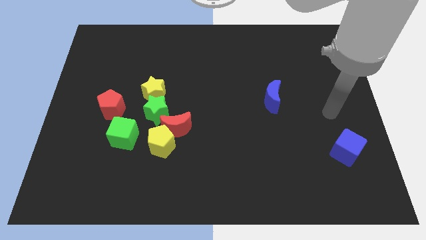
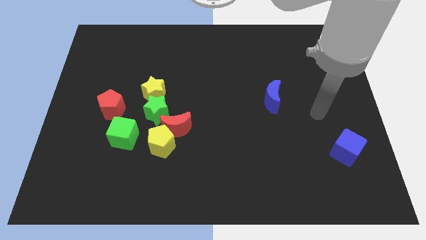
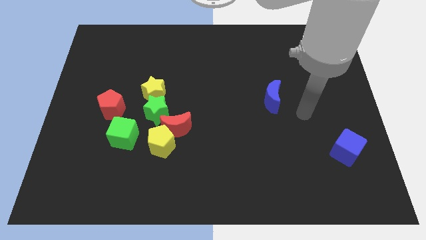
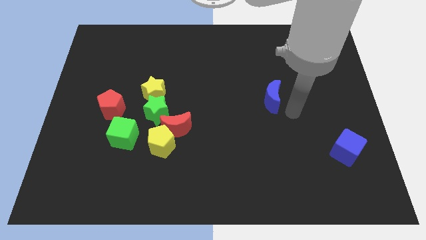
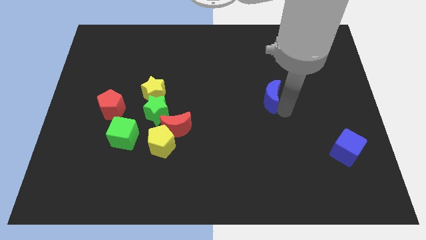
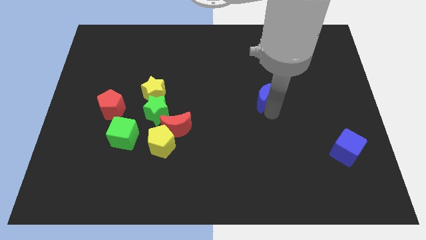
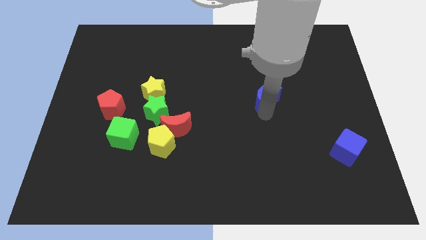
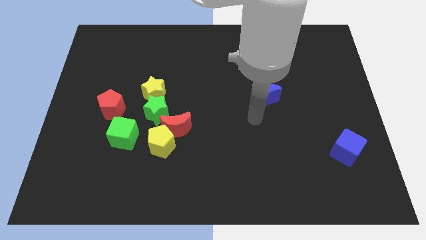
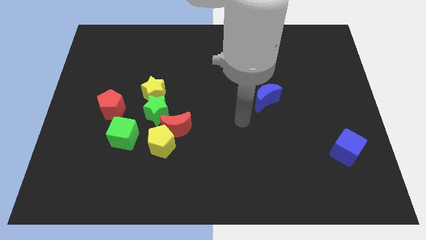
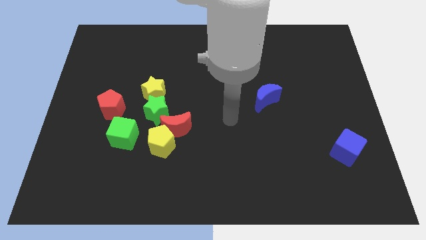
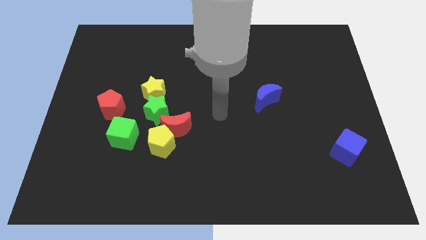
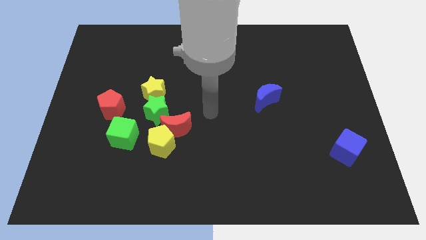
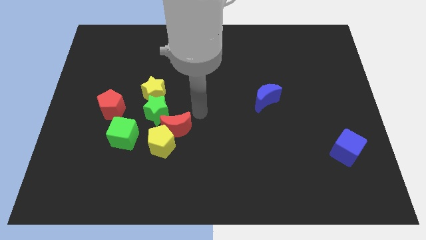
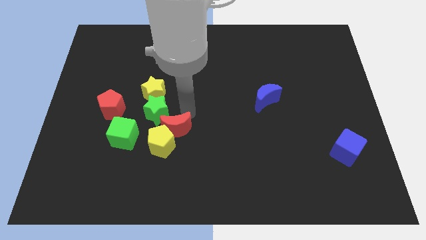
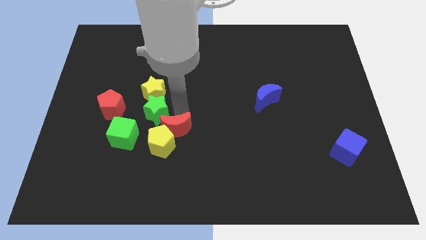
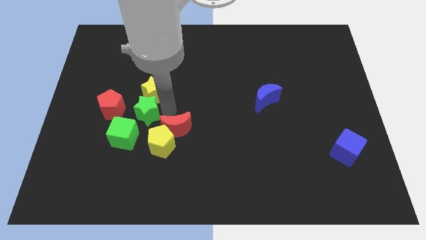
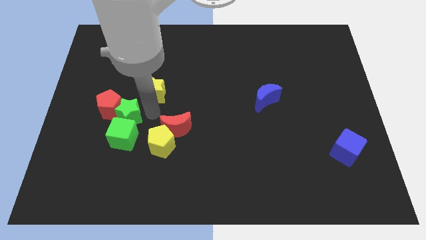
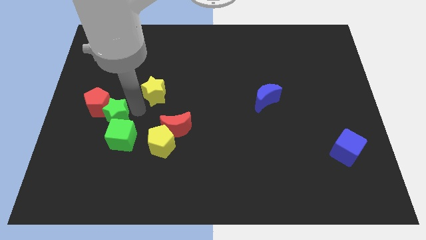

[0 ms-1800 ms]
separate the yellow star from the green star

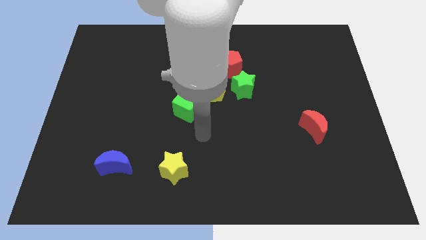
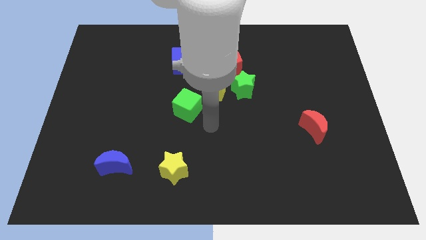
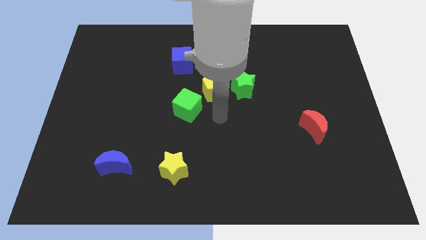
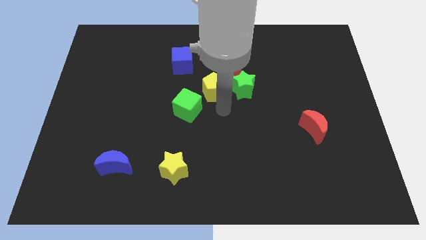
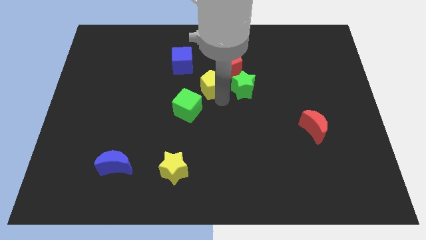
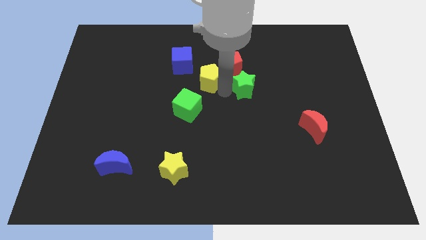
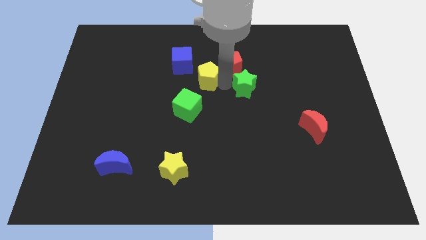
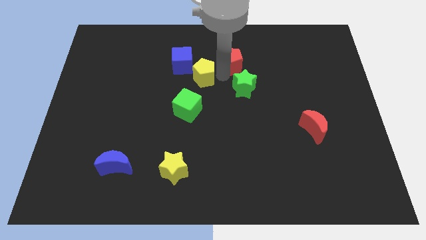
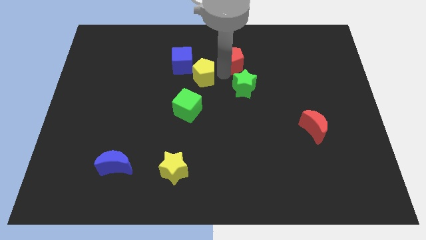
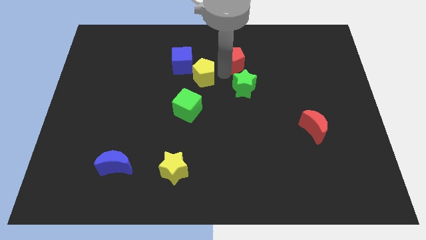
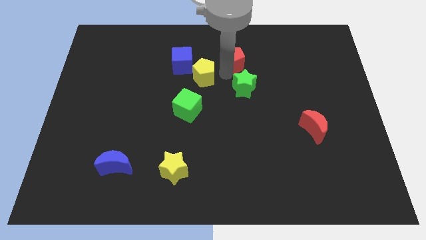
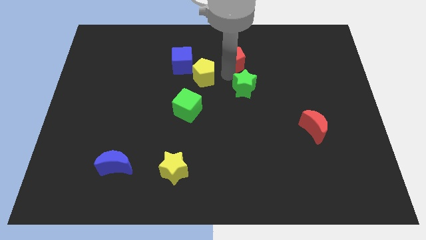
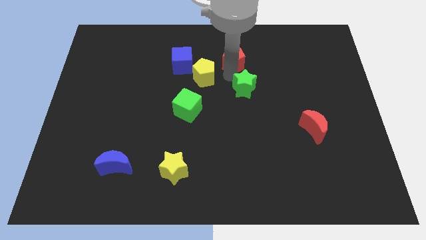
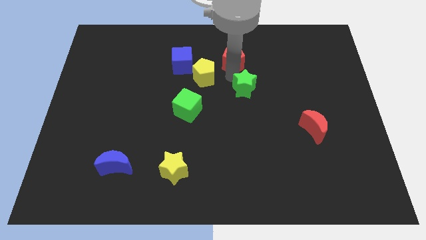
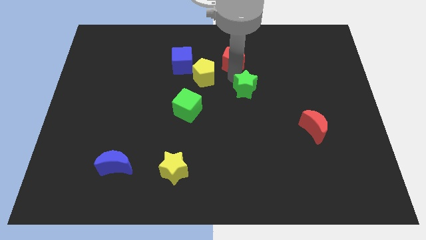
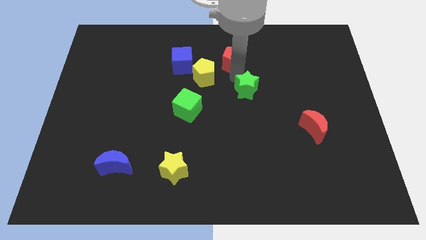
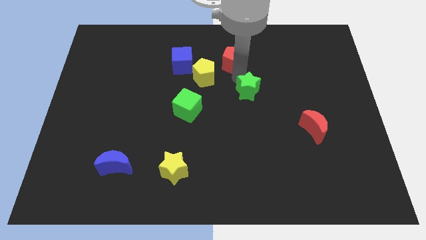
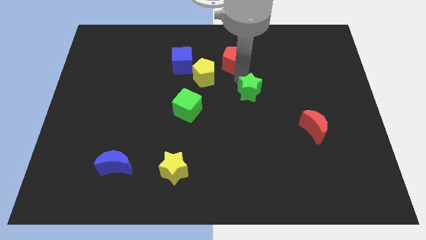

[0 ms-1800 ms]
pull the green star apart from the yellow pentagon and red pentagon

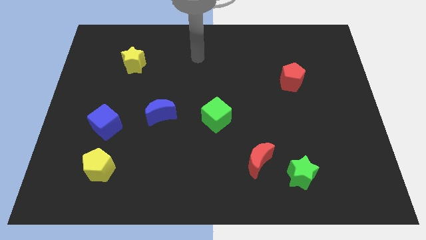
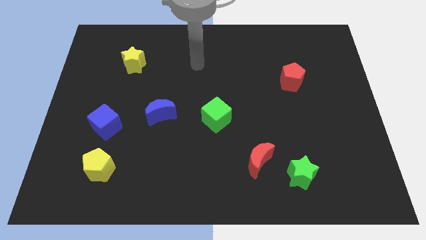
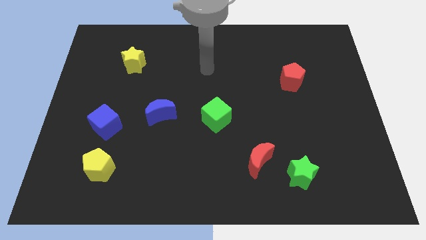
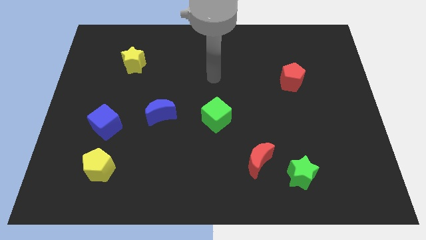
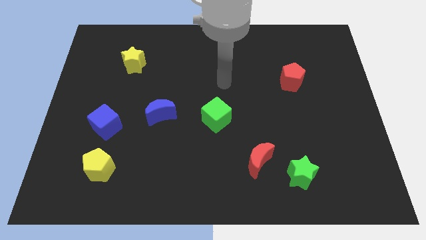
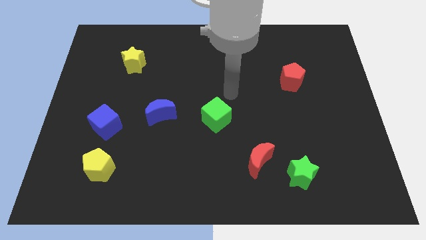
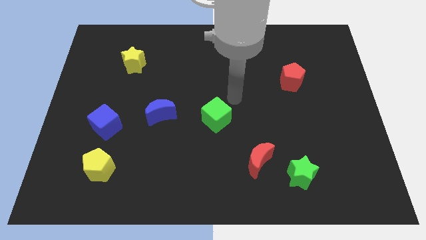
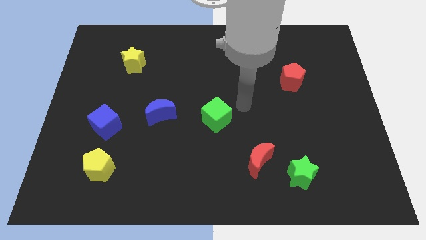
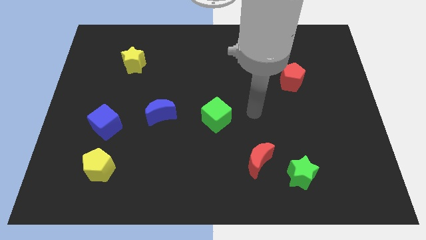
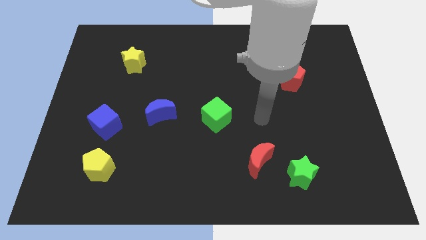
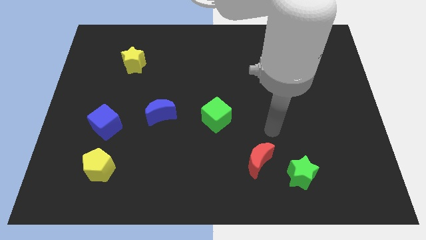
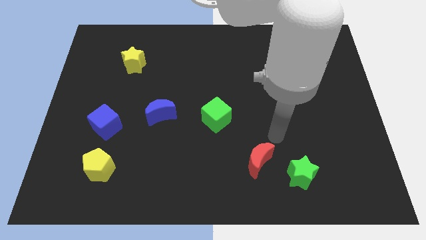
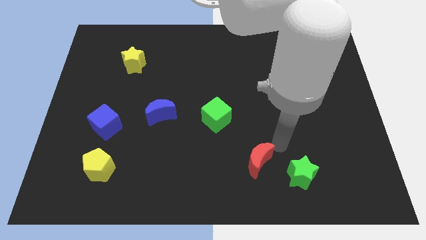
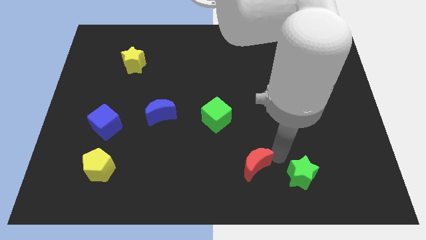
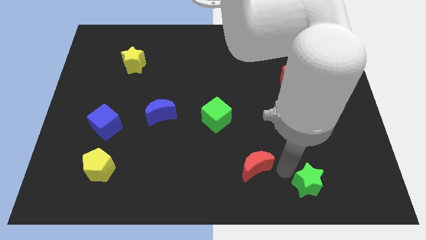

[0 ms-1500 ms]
separate the red moon from the green star

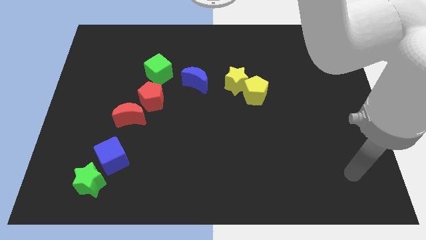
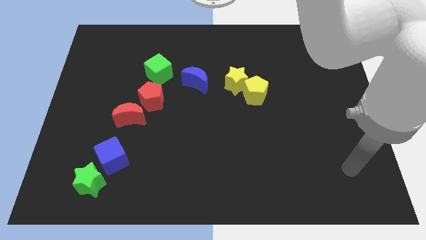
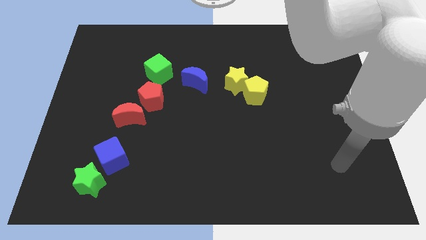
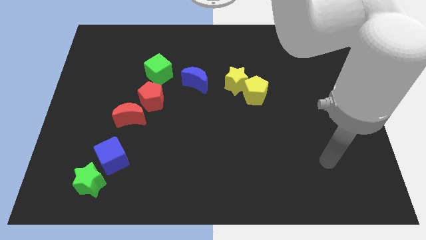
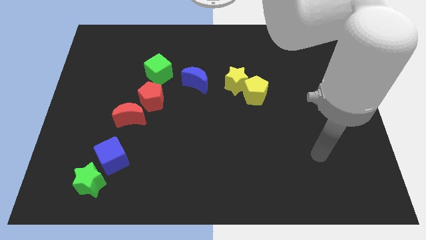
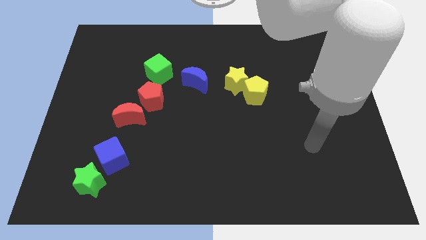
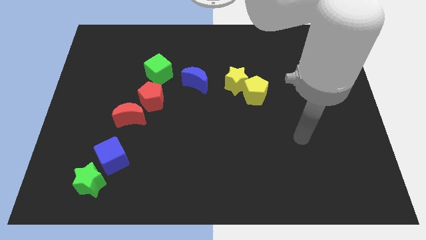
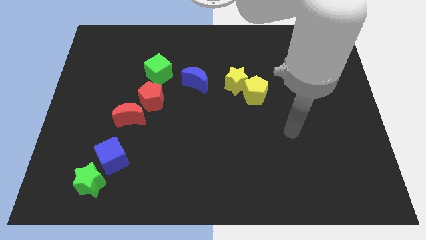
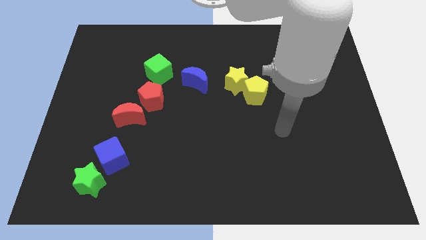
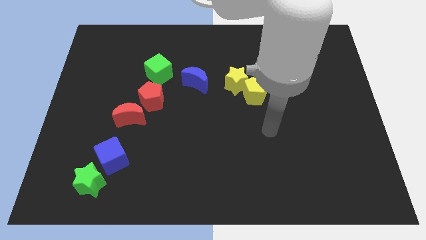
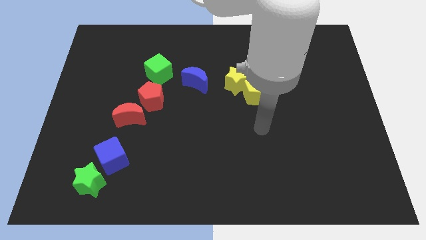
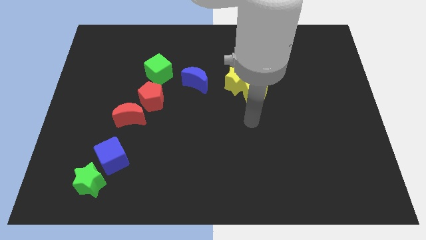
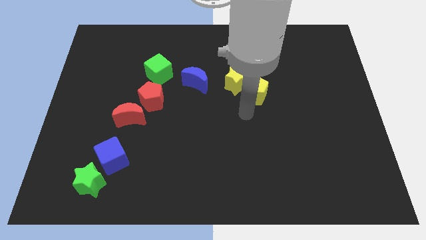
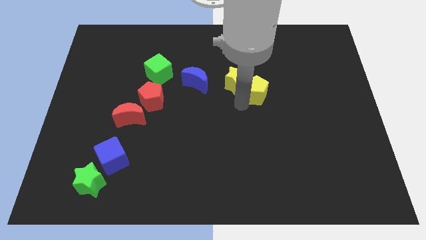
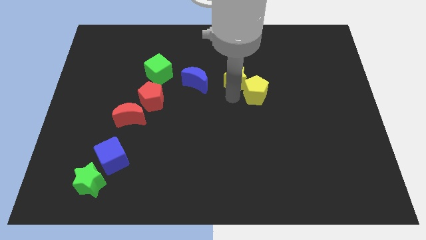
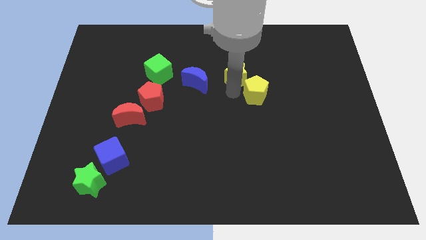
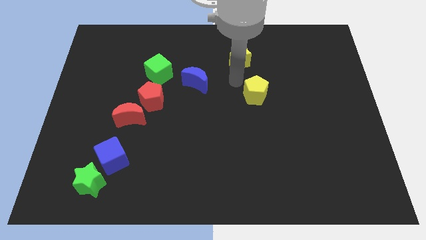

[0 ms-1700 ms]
separate the yellow pentagon from the yellow star

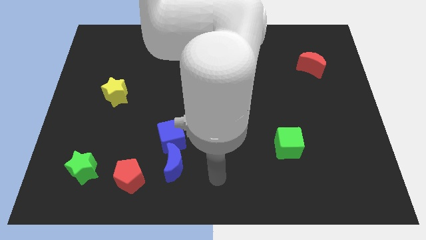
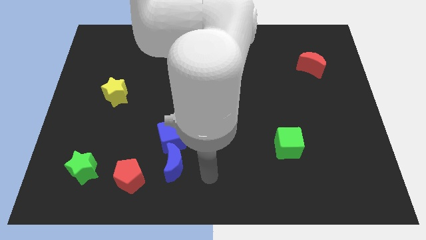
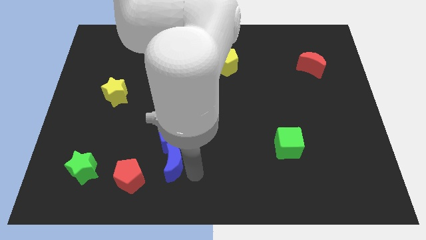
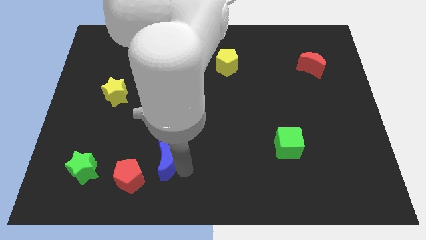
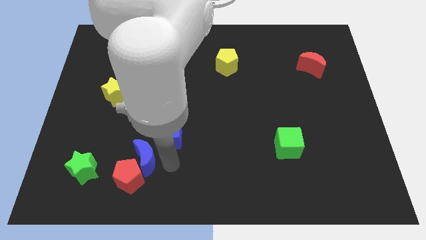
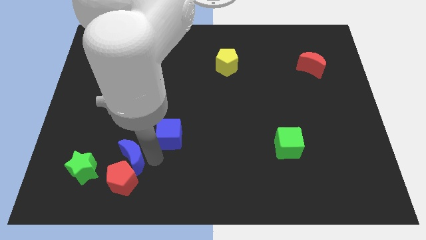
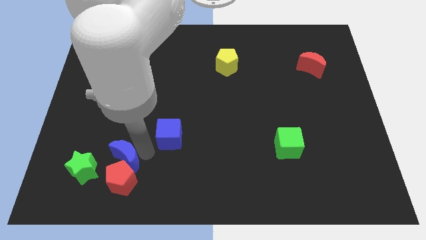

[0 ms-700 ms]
pull the blue cube apart from the blue moon

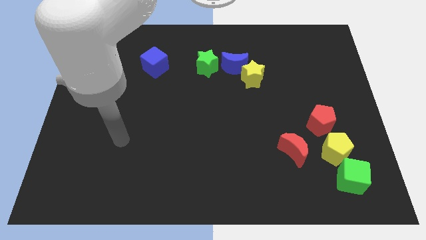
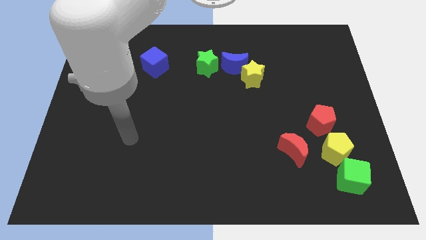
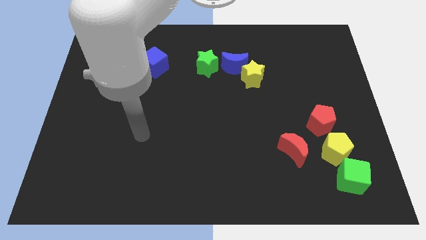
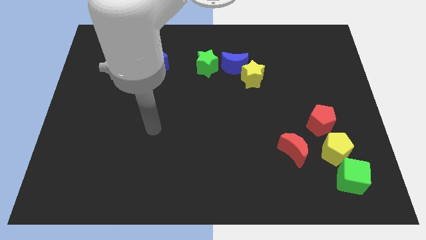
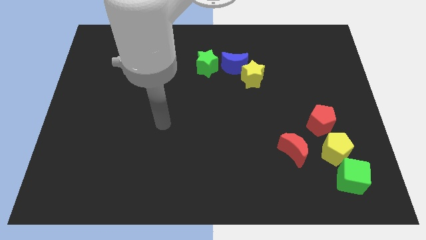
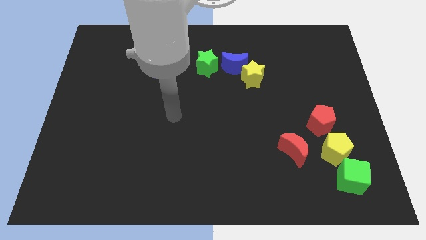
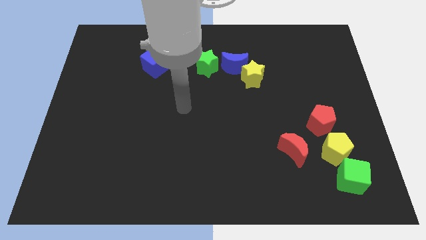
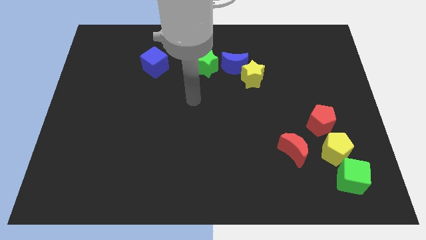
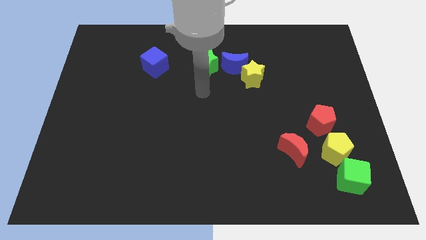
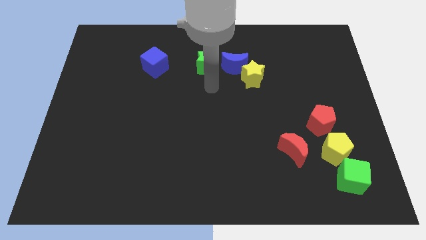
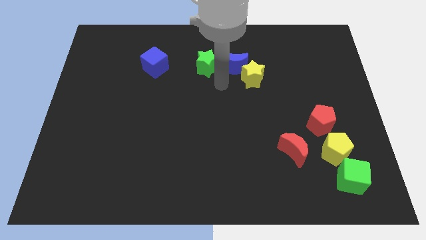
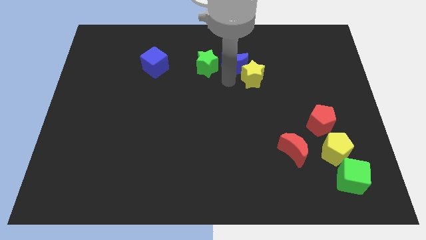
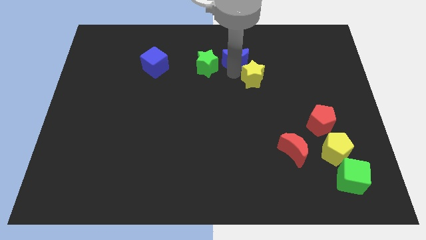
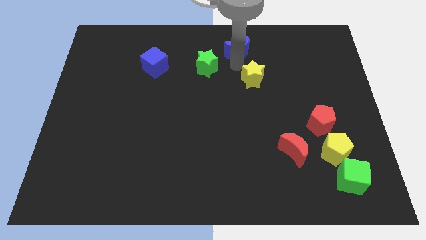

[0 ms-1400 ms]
pull the yellow star apart from the blue moon

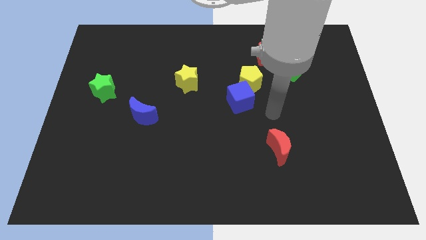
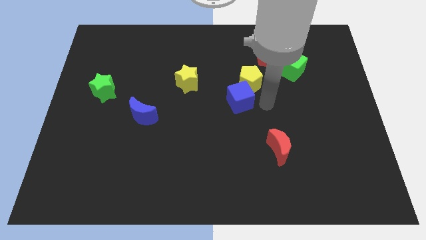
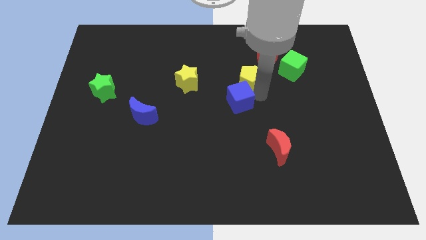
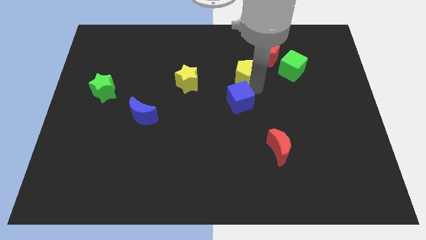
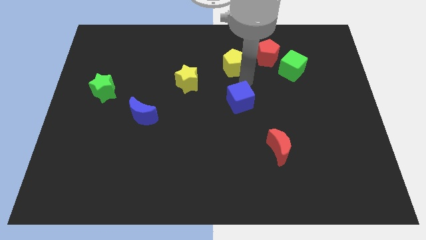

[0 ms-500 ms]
pull the blue cube apart from the yellow pentagon

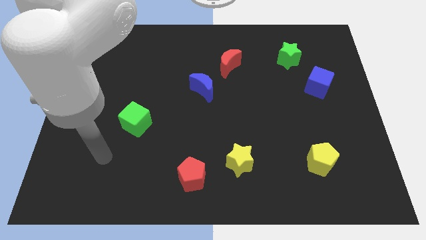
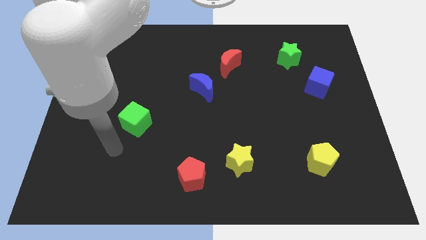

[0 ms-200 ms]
separate the red moon from the blue moon
